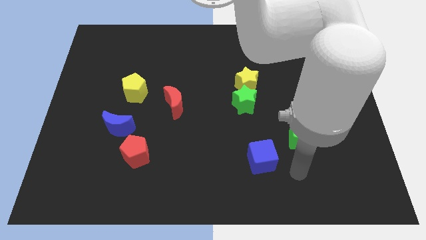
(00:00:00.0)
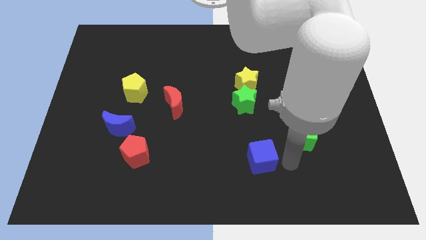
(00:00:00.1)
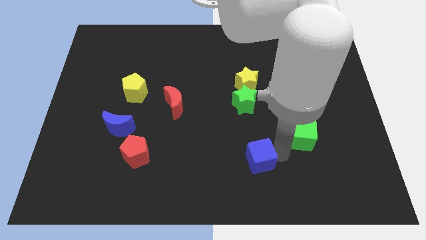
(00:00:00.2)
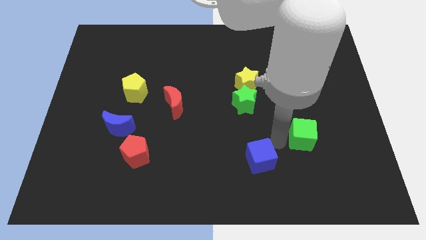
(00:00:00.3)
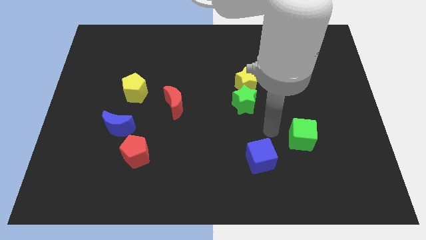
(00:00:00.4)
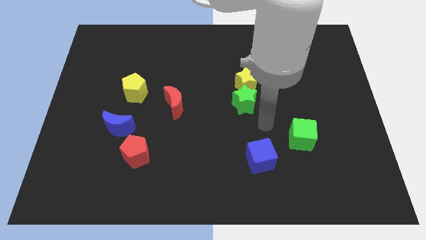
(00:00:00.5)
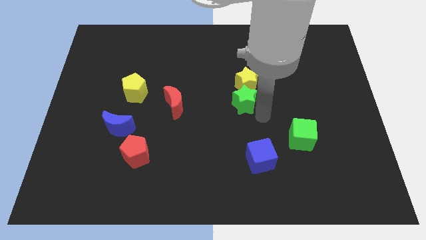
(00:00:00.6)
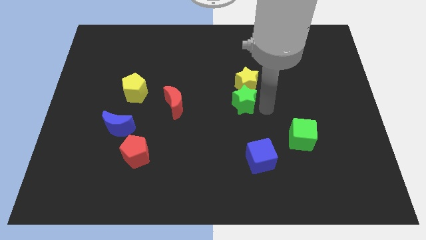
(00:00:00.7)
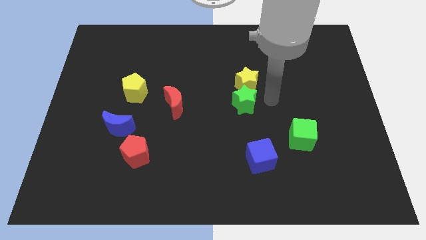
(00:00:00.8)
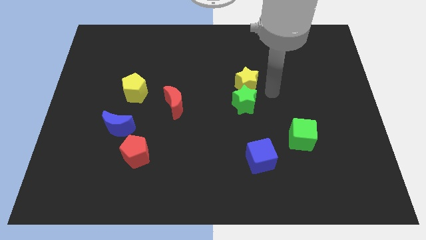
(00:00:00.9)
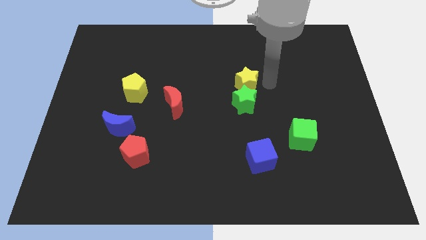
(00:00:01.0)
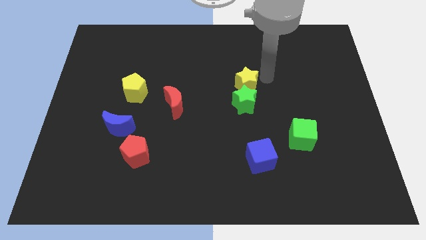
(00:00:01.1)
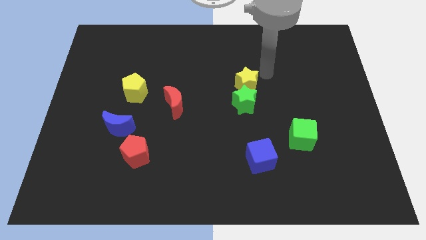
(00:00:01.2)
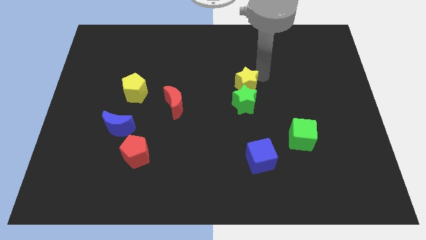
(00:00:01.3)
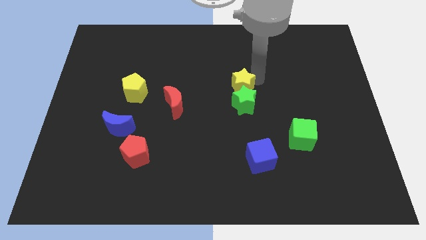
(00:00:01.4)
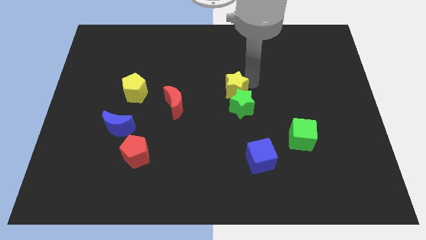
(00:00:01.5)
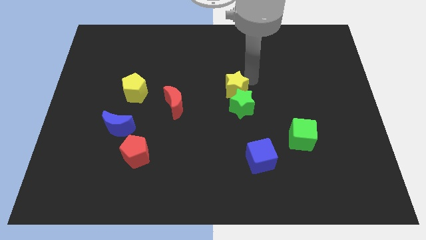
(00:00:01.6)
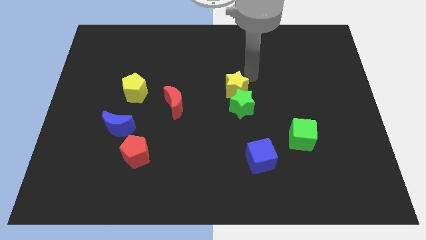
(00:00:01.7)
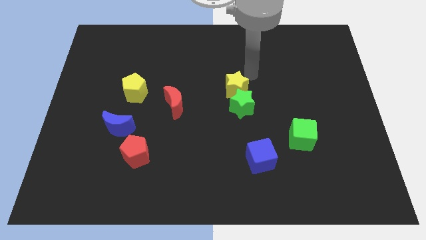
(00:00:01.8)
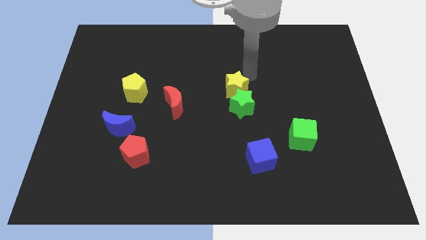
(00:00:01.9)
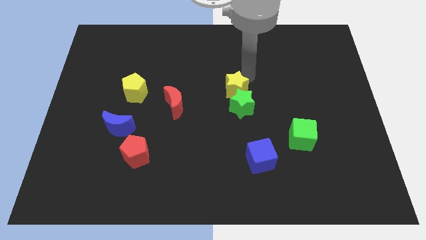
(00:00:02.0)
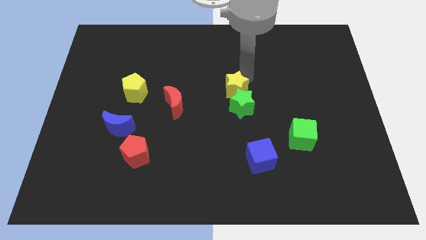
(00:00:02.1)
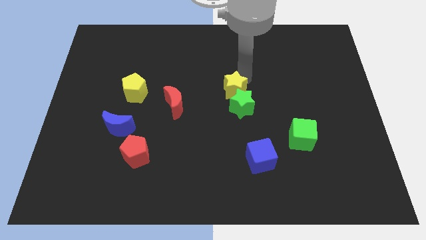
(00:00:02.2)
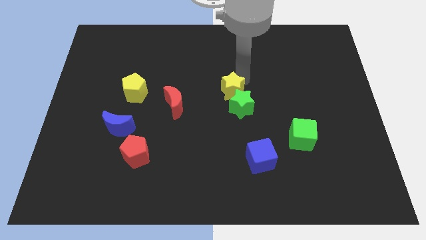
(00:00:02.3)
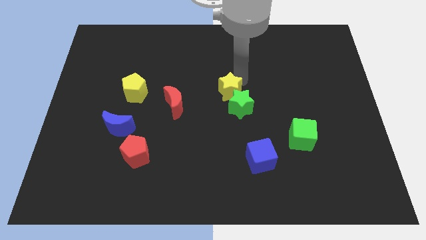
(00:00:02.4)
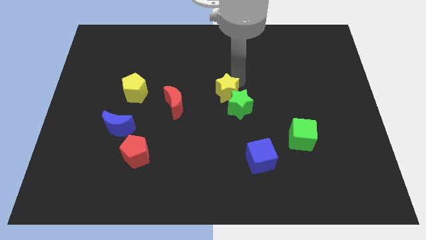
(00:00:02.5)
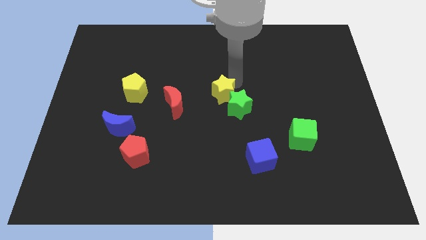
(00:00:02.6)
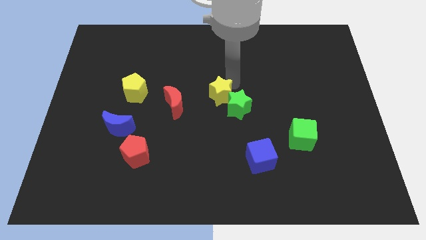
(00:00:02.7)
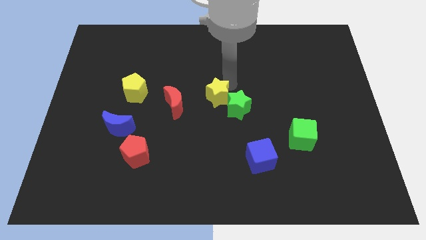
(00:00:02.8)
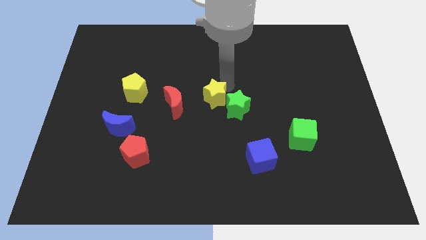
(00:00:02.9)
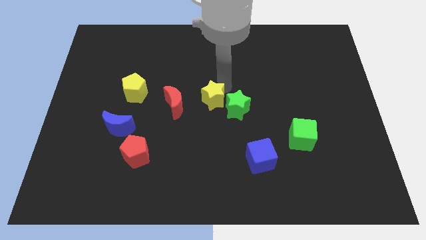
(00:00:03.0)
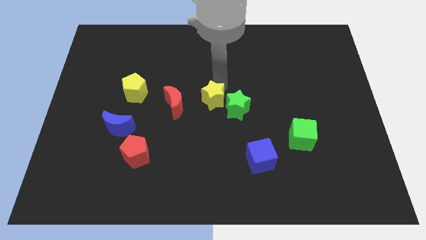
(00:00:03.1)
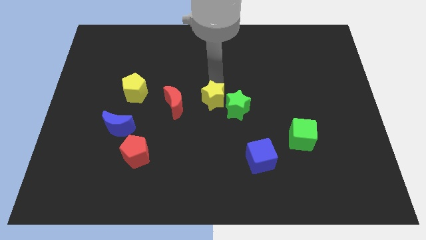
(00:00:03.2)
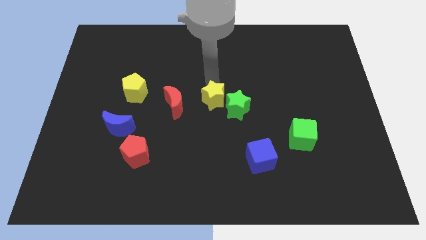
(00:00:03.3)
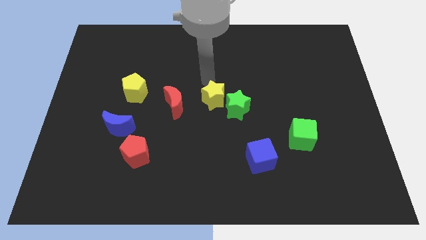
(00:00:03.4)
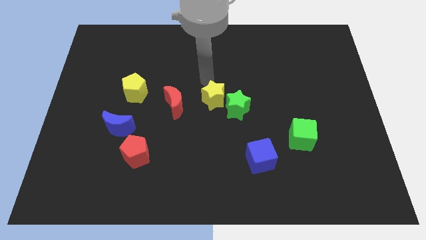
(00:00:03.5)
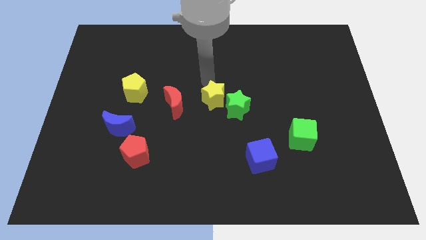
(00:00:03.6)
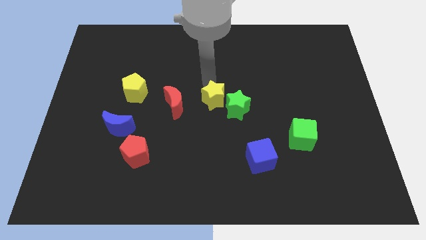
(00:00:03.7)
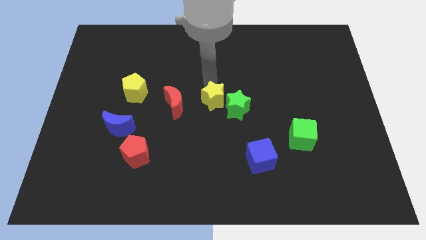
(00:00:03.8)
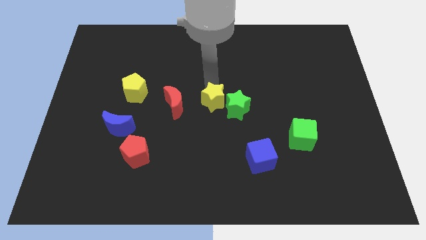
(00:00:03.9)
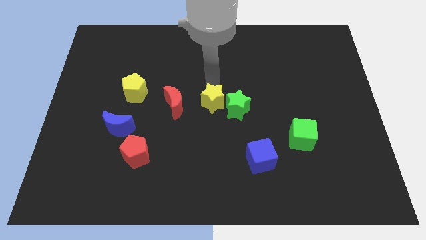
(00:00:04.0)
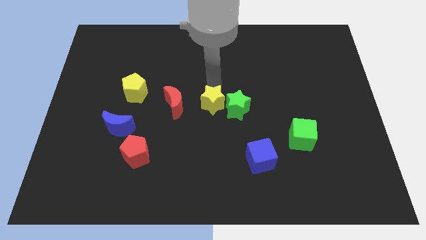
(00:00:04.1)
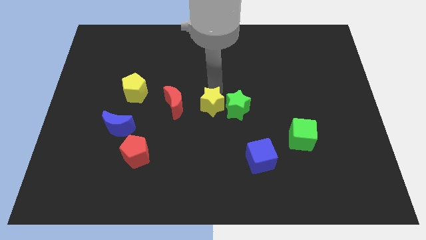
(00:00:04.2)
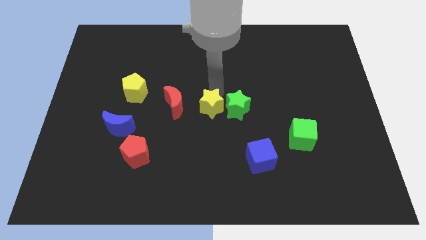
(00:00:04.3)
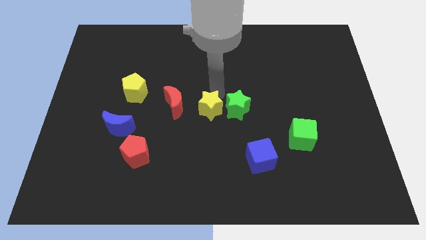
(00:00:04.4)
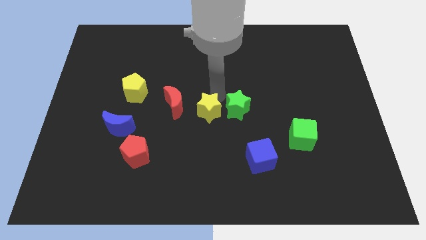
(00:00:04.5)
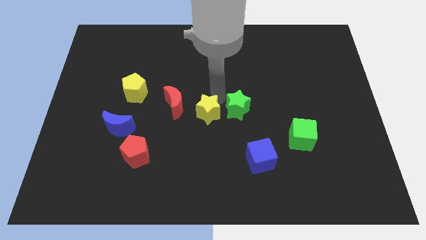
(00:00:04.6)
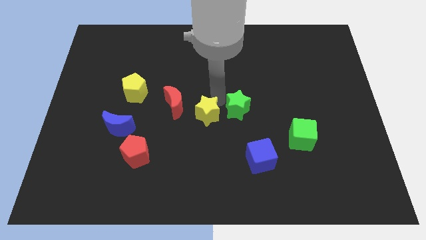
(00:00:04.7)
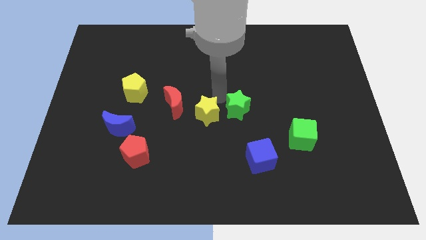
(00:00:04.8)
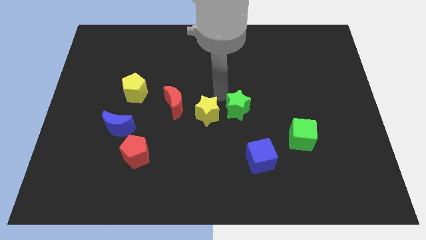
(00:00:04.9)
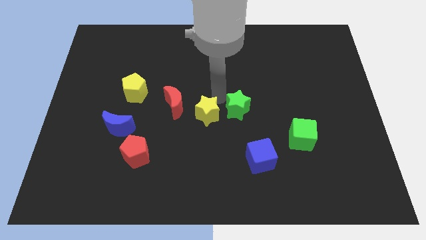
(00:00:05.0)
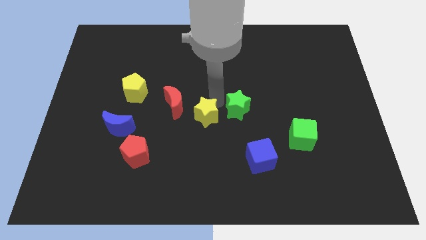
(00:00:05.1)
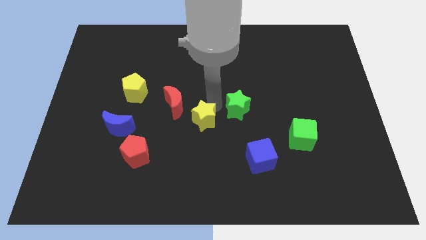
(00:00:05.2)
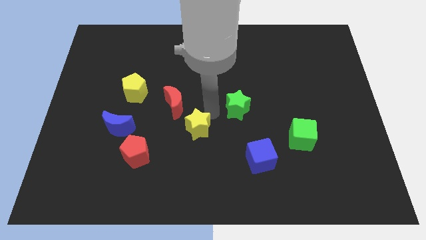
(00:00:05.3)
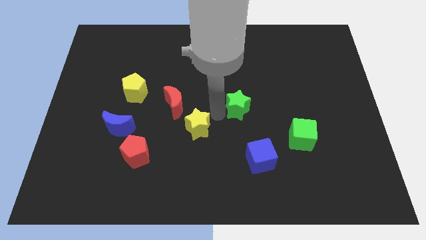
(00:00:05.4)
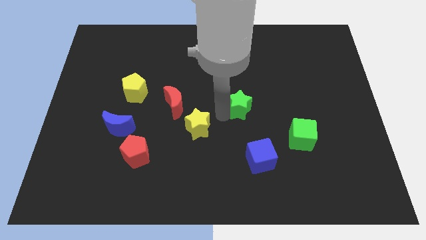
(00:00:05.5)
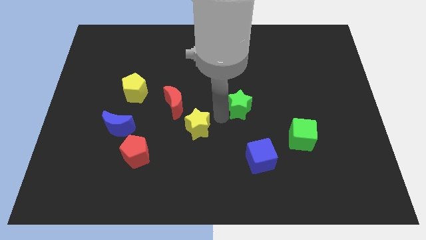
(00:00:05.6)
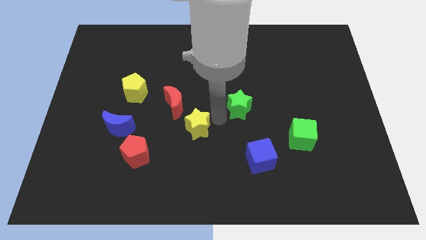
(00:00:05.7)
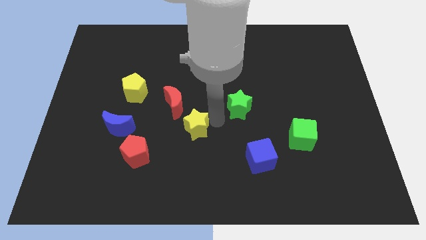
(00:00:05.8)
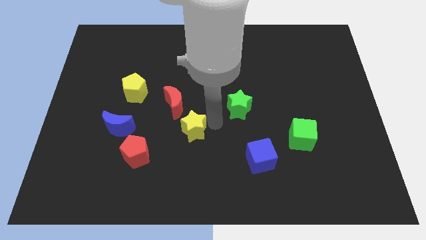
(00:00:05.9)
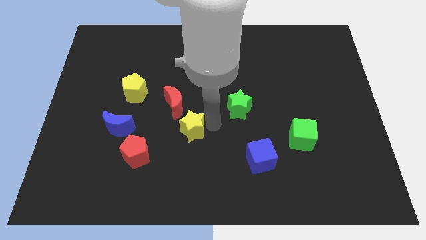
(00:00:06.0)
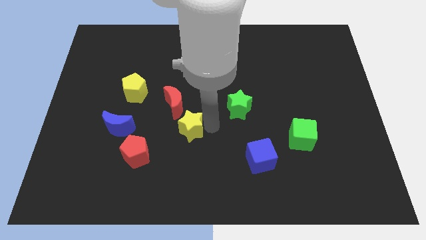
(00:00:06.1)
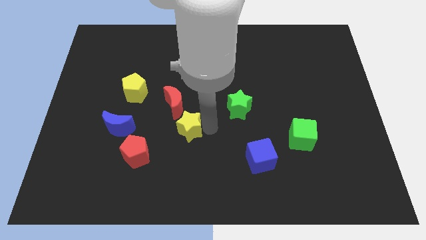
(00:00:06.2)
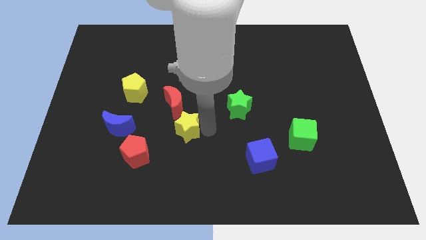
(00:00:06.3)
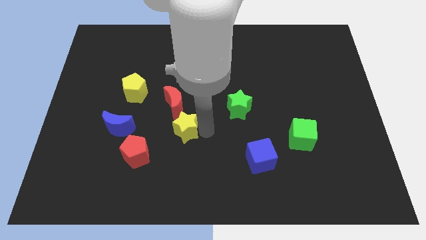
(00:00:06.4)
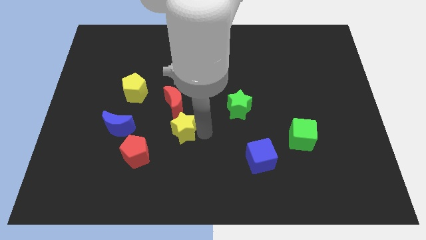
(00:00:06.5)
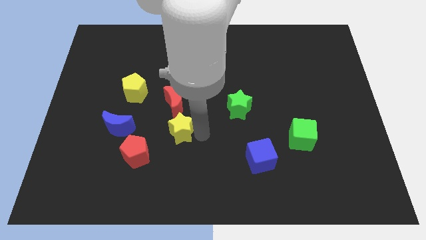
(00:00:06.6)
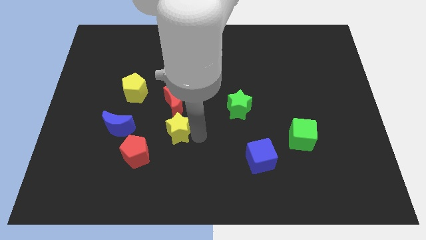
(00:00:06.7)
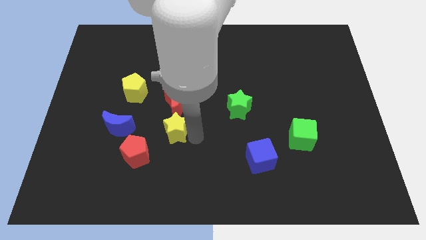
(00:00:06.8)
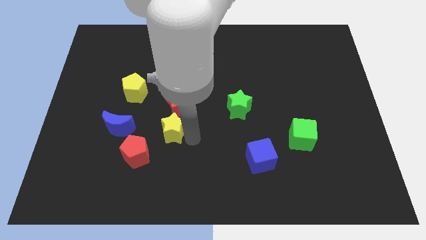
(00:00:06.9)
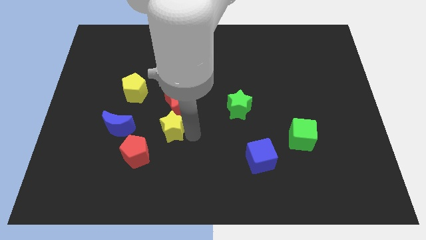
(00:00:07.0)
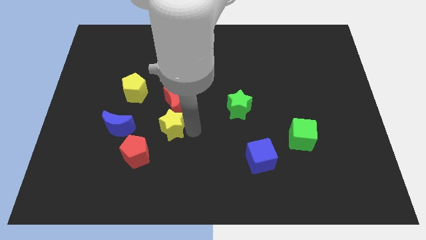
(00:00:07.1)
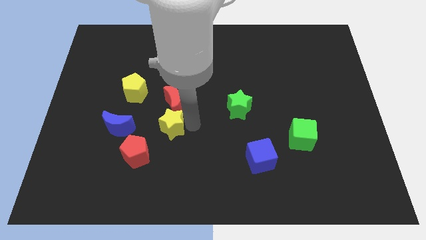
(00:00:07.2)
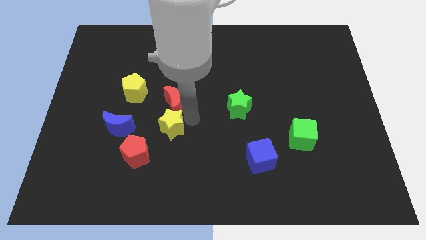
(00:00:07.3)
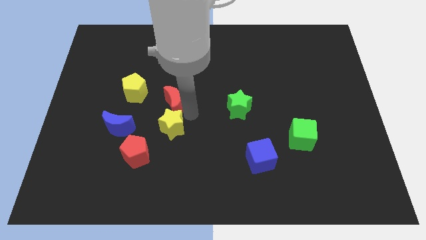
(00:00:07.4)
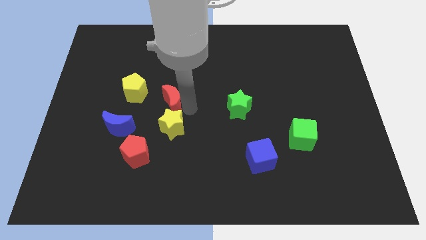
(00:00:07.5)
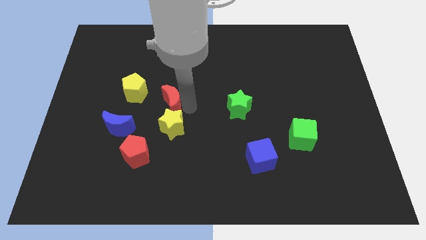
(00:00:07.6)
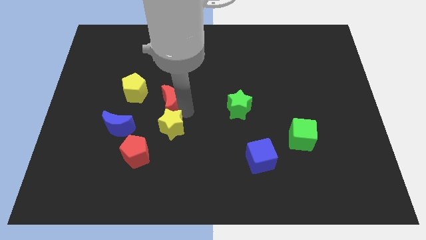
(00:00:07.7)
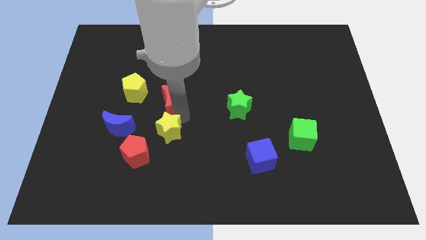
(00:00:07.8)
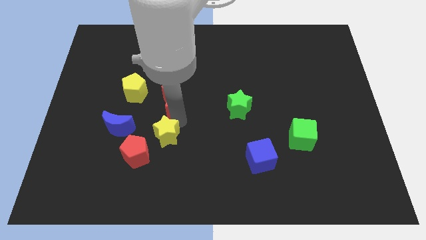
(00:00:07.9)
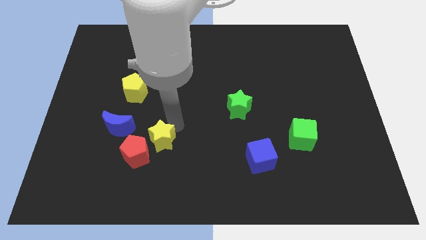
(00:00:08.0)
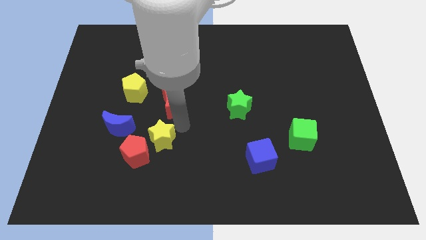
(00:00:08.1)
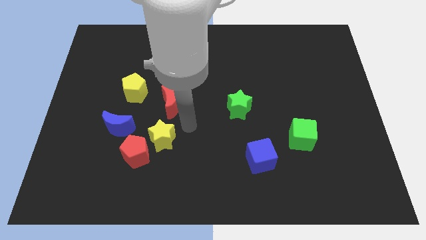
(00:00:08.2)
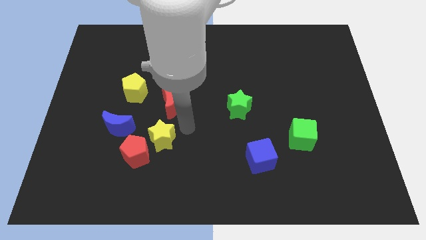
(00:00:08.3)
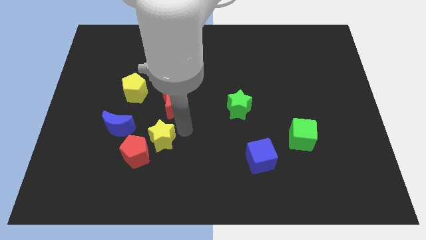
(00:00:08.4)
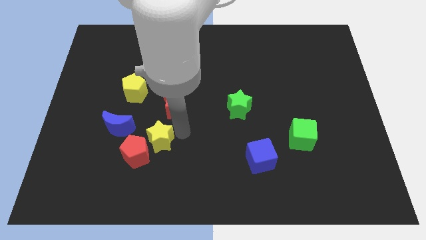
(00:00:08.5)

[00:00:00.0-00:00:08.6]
put the yellow star close to the red pentagon
